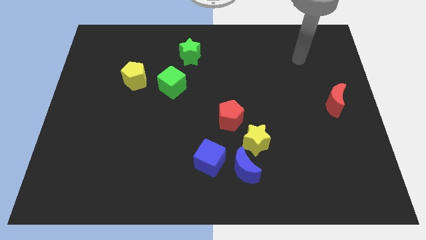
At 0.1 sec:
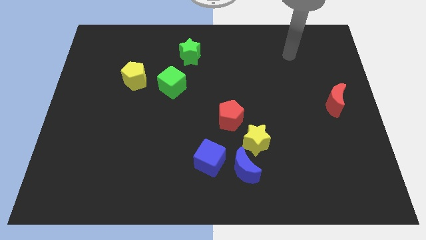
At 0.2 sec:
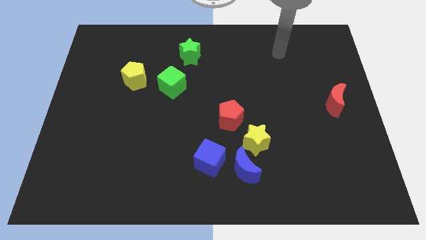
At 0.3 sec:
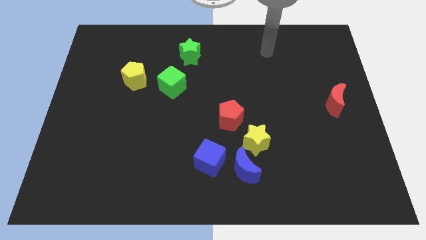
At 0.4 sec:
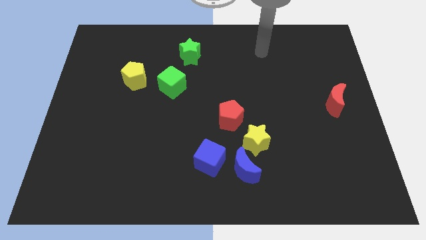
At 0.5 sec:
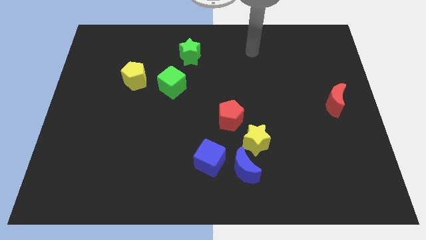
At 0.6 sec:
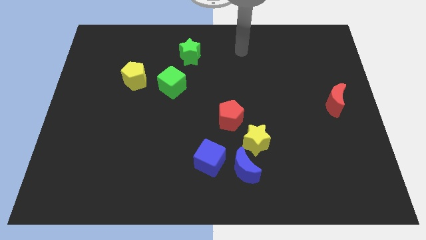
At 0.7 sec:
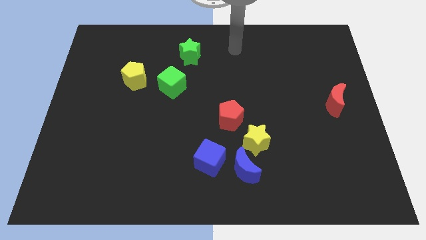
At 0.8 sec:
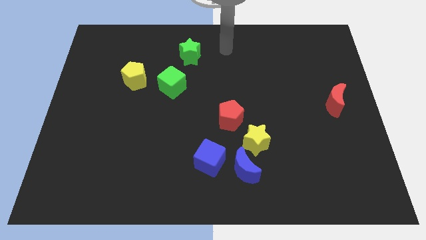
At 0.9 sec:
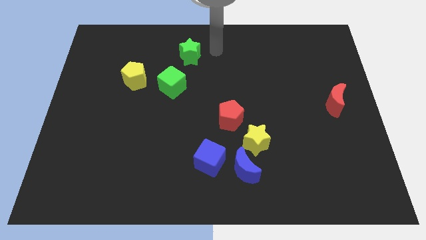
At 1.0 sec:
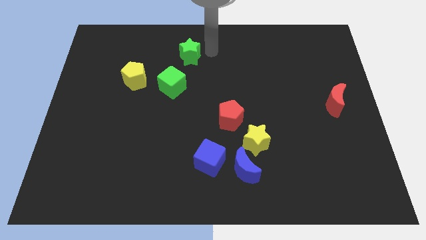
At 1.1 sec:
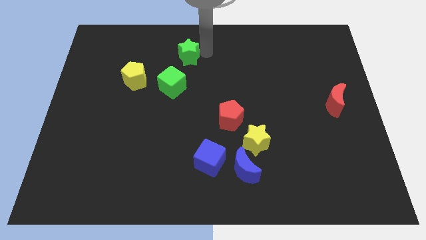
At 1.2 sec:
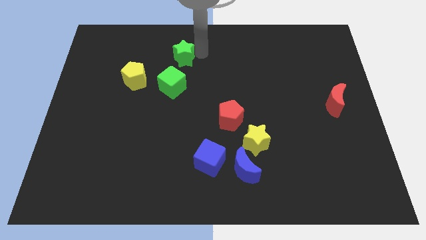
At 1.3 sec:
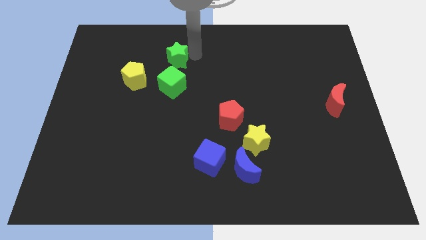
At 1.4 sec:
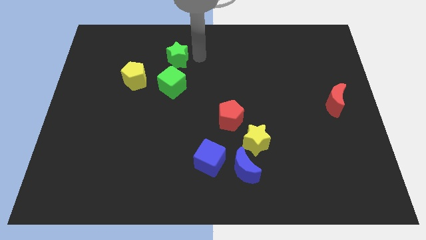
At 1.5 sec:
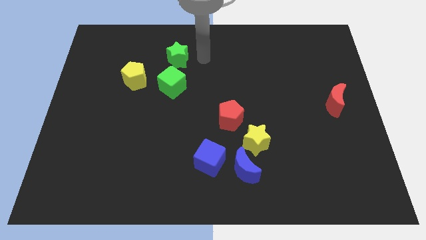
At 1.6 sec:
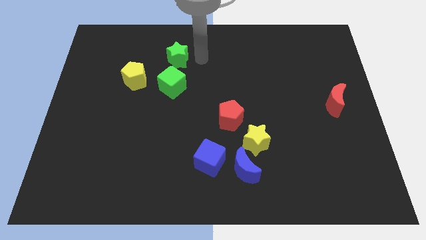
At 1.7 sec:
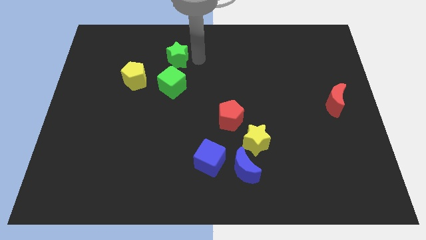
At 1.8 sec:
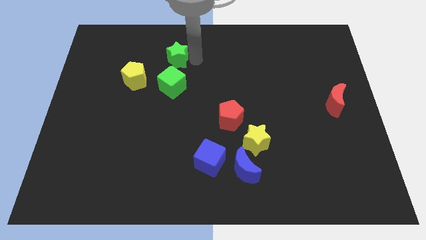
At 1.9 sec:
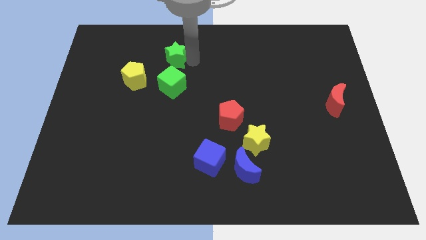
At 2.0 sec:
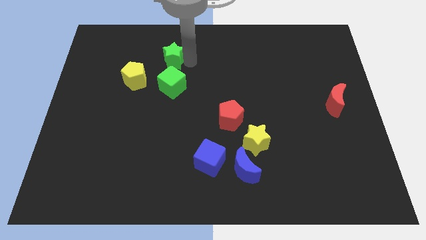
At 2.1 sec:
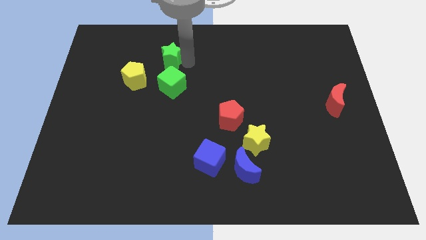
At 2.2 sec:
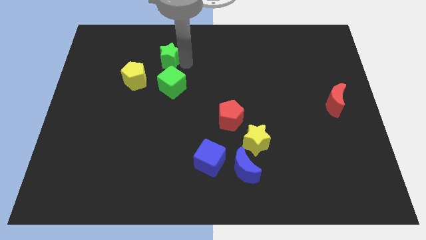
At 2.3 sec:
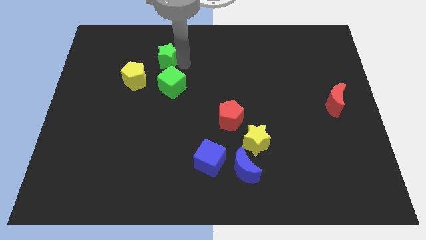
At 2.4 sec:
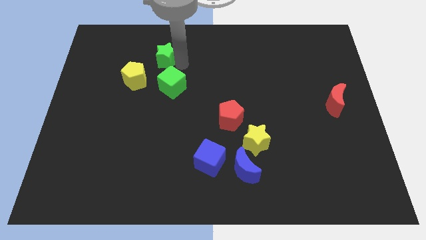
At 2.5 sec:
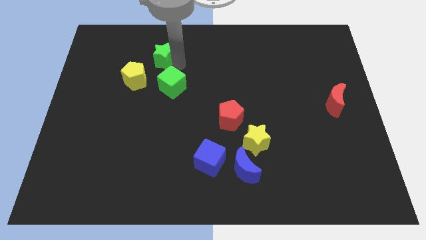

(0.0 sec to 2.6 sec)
push the green star a bit to the left

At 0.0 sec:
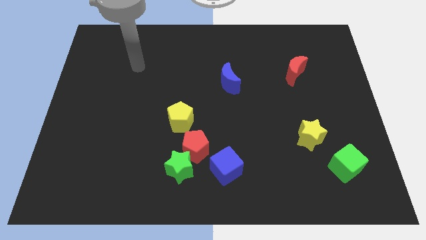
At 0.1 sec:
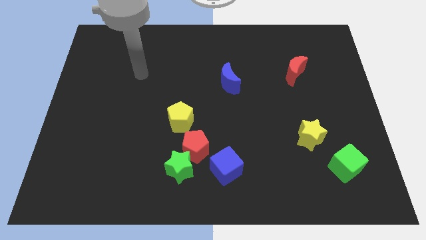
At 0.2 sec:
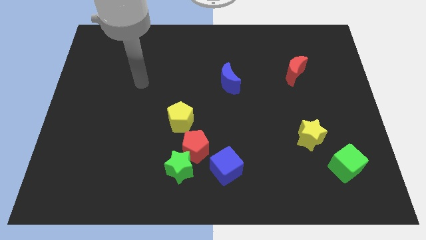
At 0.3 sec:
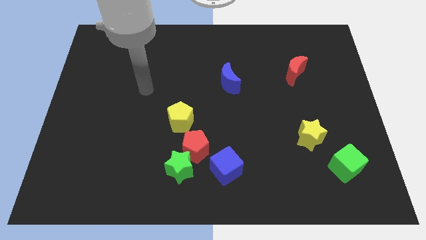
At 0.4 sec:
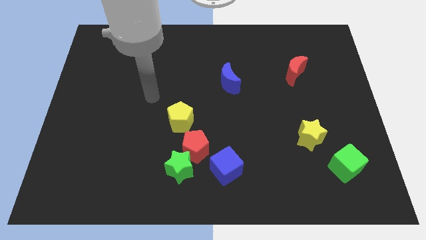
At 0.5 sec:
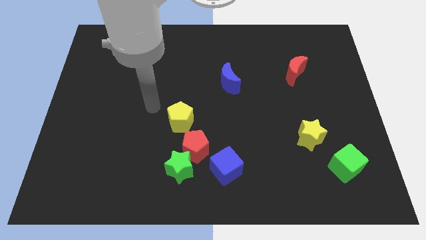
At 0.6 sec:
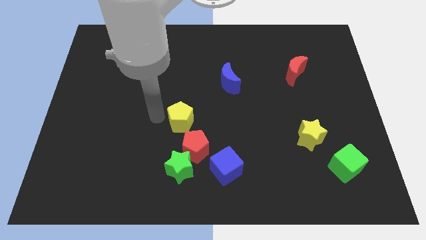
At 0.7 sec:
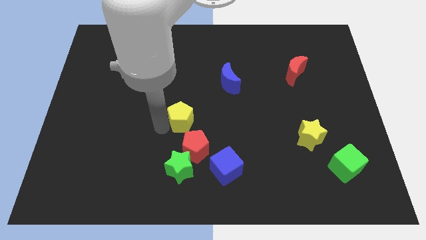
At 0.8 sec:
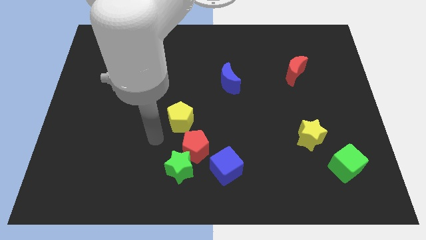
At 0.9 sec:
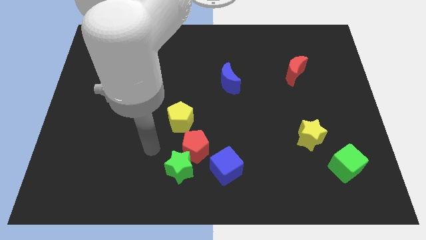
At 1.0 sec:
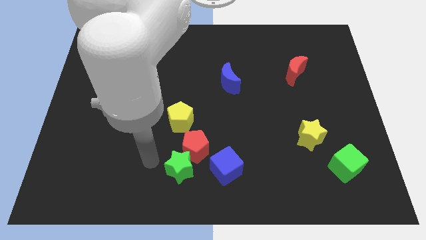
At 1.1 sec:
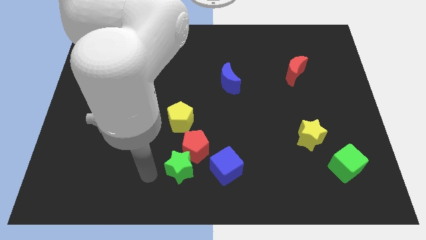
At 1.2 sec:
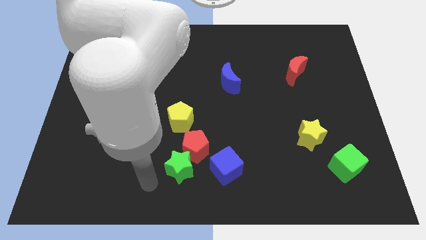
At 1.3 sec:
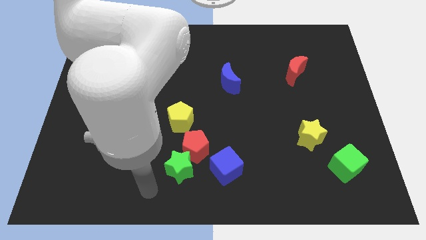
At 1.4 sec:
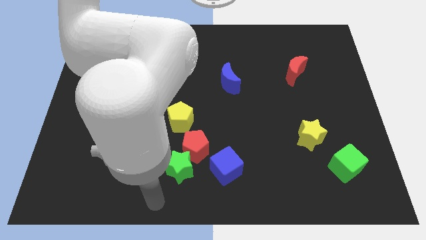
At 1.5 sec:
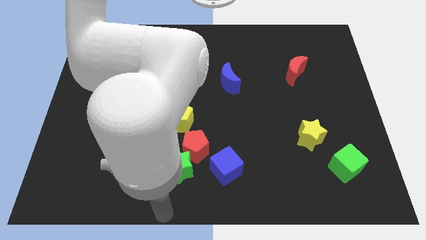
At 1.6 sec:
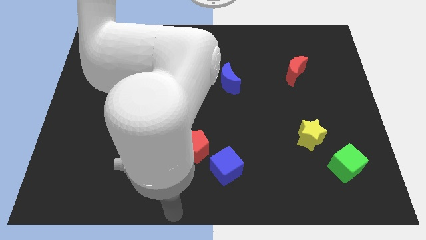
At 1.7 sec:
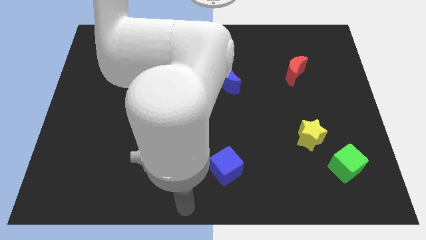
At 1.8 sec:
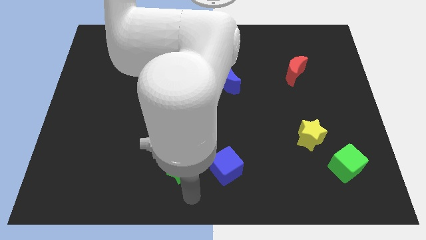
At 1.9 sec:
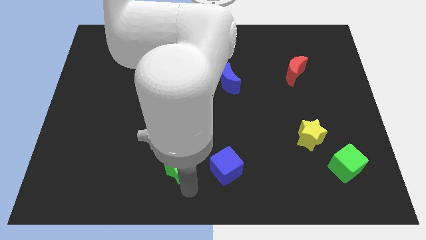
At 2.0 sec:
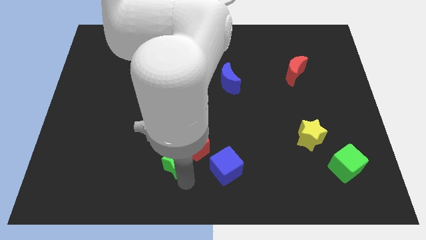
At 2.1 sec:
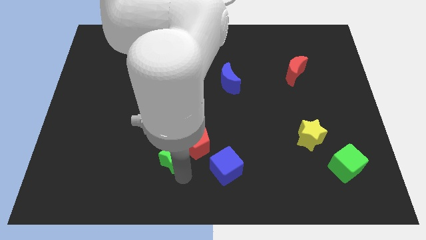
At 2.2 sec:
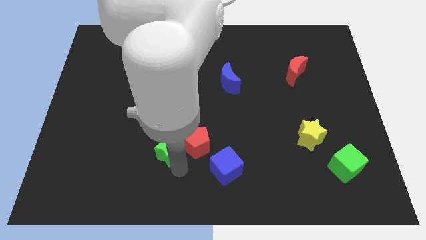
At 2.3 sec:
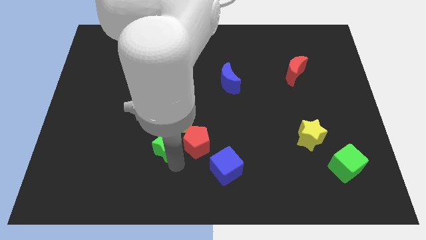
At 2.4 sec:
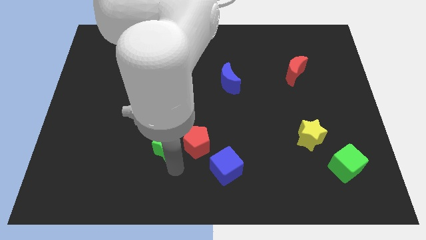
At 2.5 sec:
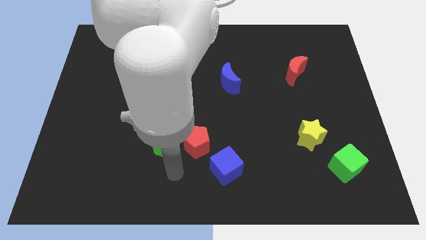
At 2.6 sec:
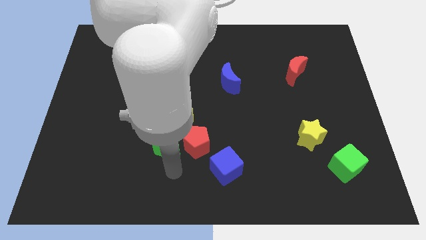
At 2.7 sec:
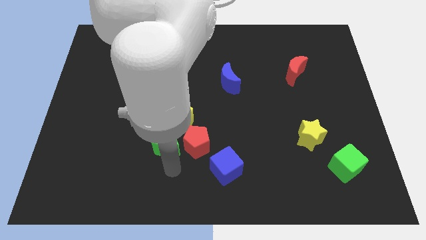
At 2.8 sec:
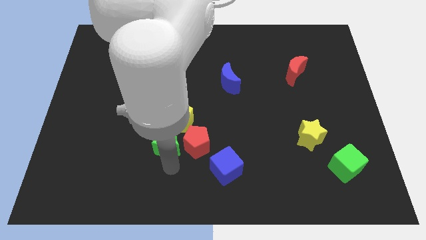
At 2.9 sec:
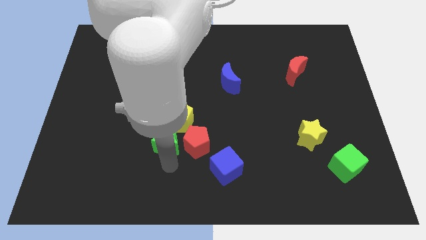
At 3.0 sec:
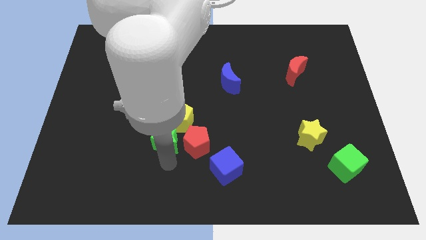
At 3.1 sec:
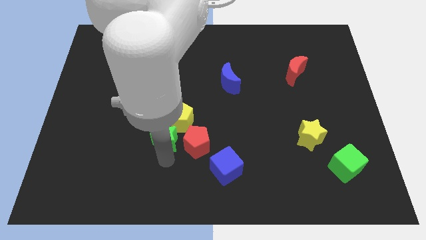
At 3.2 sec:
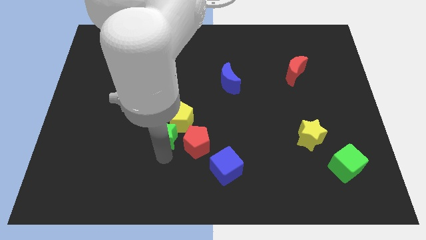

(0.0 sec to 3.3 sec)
push the green star upwards a little

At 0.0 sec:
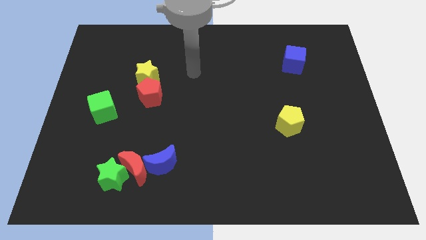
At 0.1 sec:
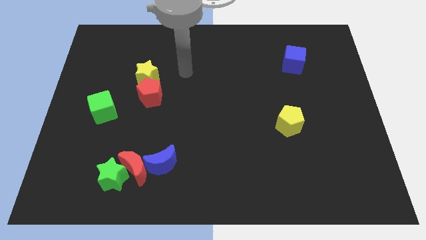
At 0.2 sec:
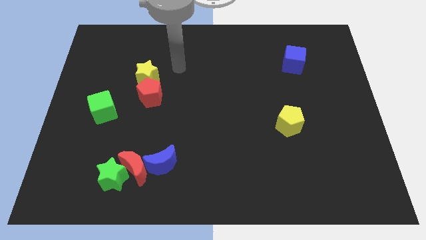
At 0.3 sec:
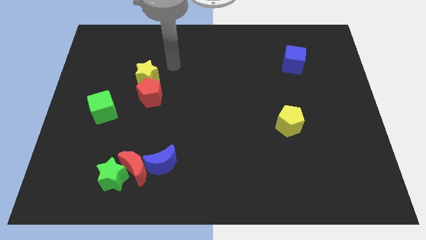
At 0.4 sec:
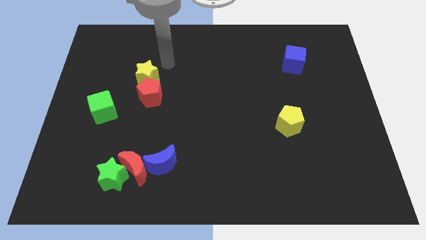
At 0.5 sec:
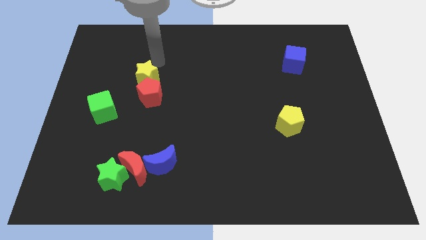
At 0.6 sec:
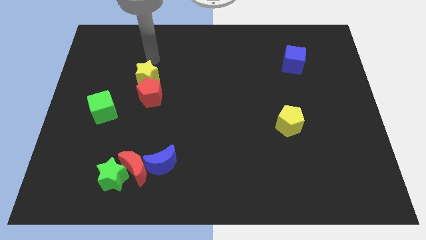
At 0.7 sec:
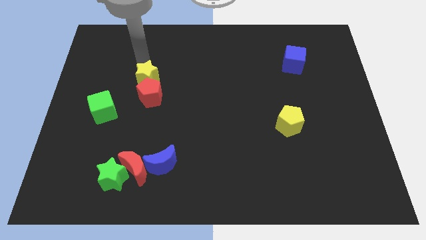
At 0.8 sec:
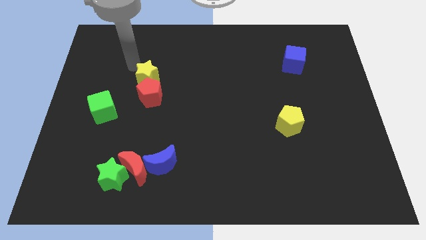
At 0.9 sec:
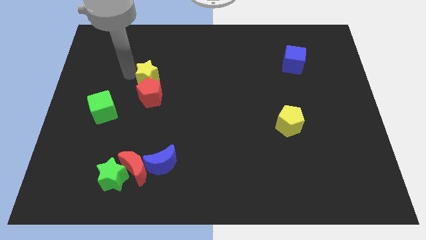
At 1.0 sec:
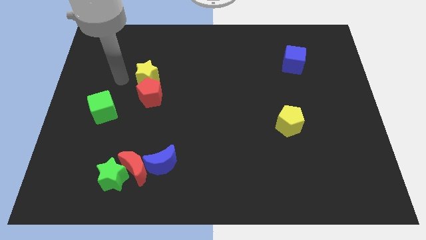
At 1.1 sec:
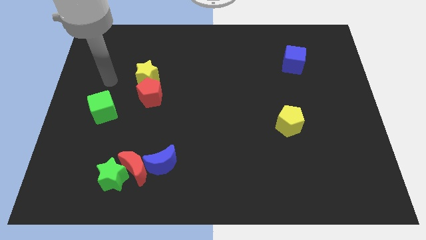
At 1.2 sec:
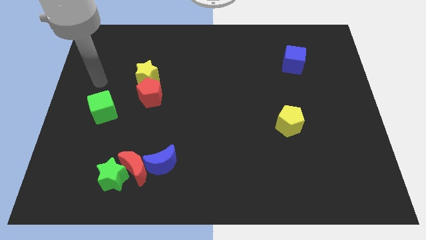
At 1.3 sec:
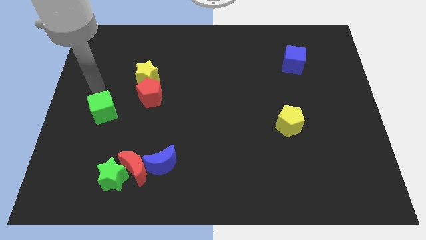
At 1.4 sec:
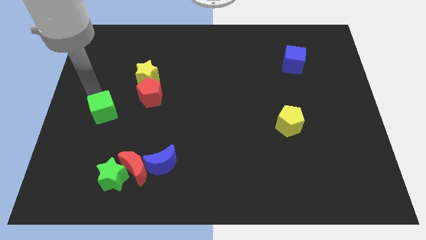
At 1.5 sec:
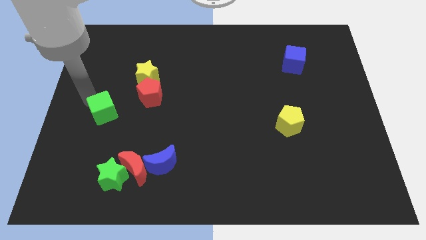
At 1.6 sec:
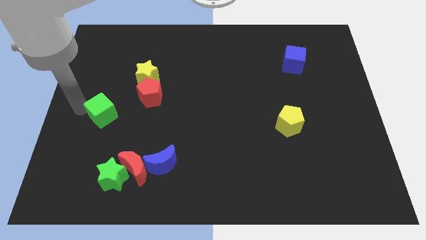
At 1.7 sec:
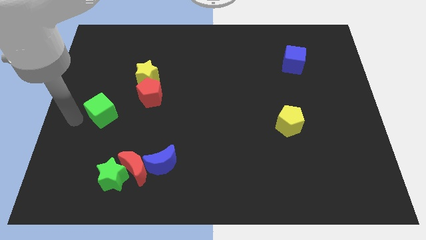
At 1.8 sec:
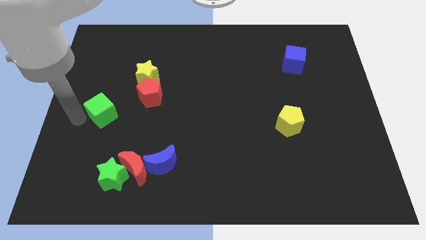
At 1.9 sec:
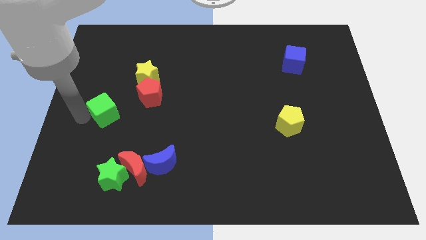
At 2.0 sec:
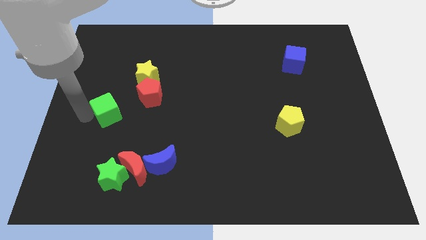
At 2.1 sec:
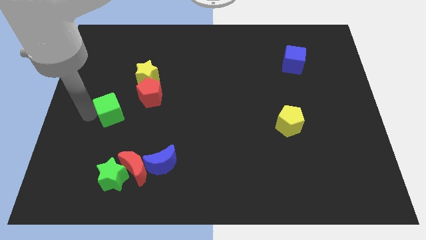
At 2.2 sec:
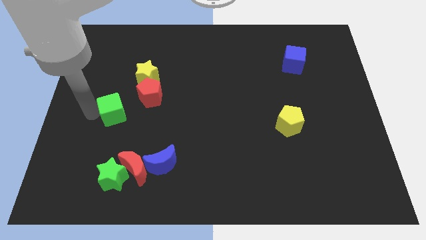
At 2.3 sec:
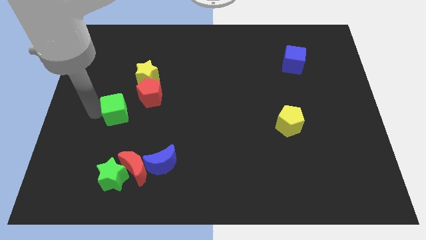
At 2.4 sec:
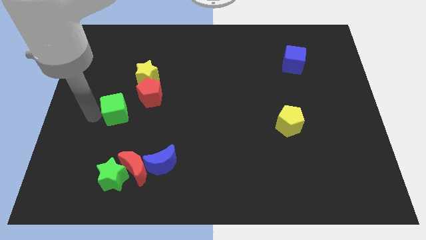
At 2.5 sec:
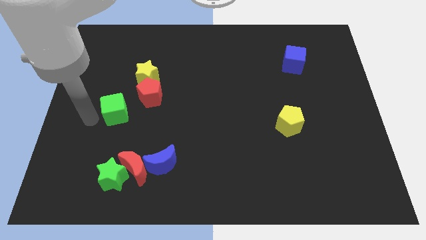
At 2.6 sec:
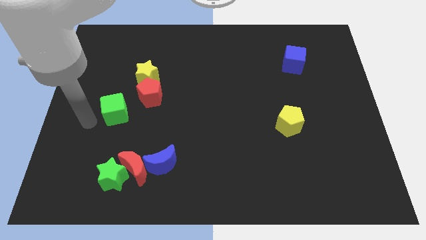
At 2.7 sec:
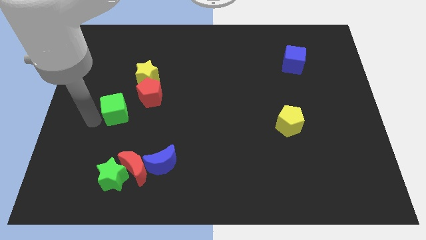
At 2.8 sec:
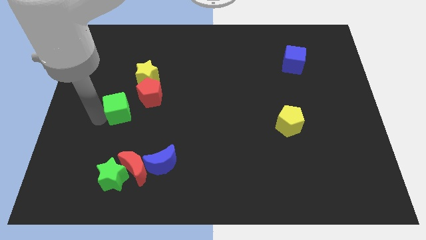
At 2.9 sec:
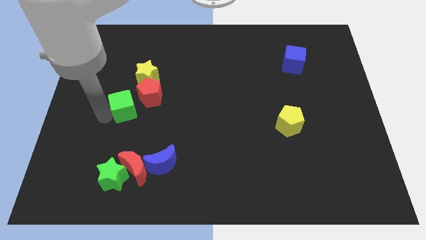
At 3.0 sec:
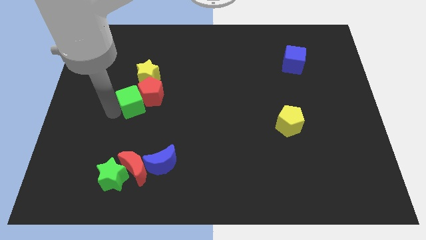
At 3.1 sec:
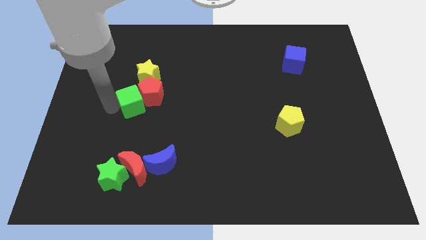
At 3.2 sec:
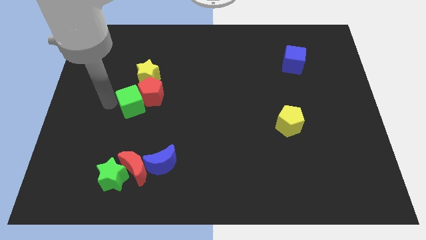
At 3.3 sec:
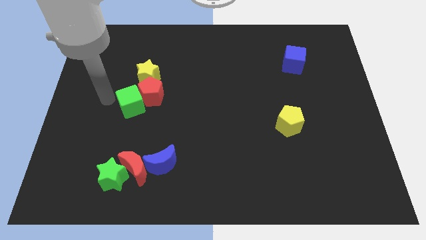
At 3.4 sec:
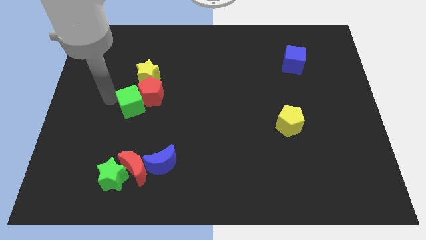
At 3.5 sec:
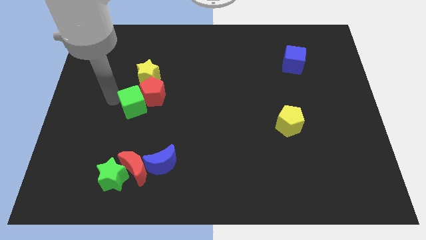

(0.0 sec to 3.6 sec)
slide the green cube somewhat right
